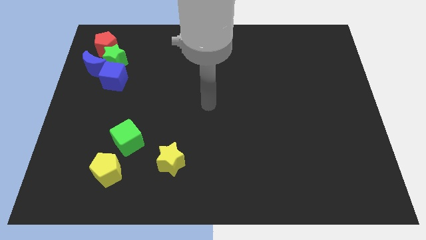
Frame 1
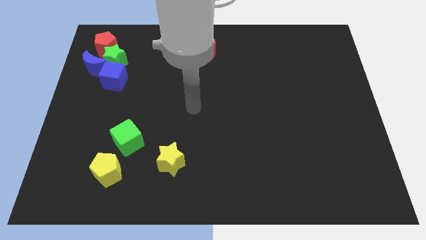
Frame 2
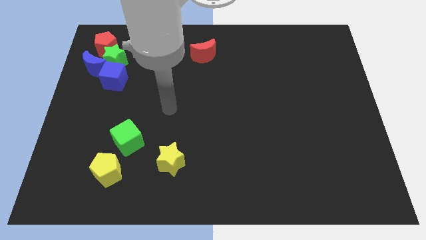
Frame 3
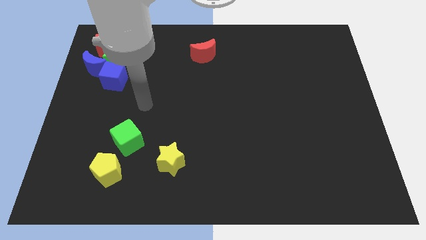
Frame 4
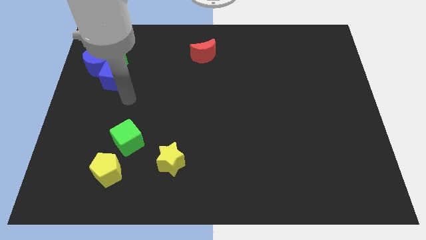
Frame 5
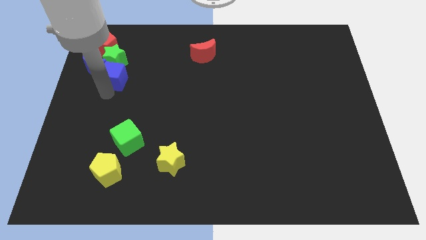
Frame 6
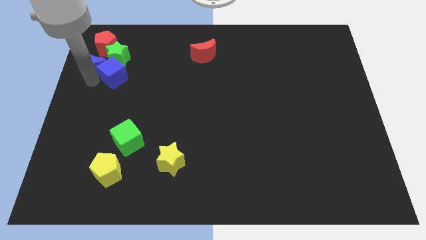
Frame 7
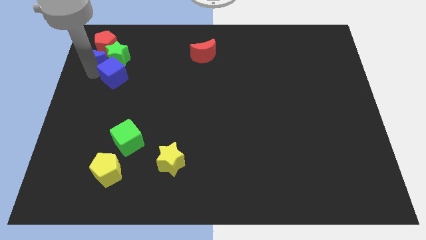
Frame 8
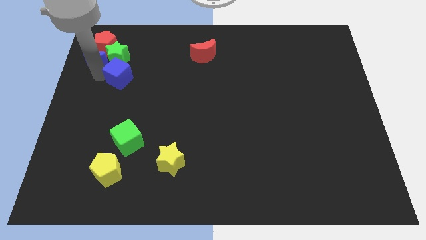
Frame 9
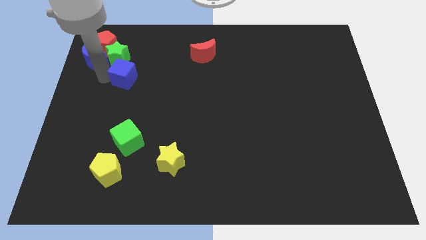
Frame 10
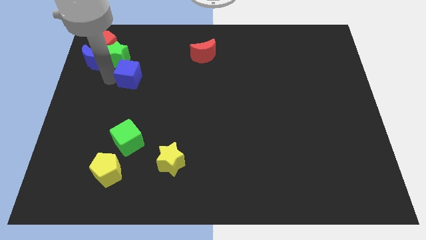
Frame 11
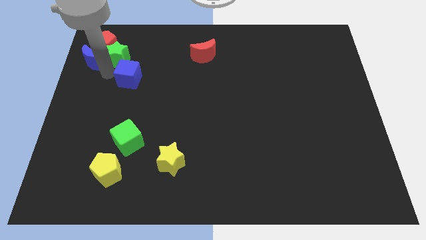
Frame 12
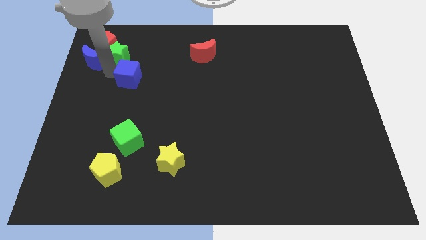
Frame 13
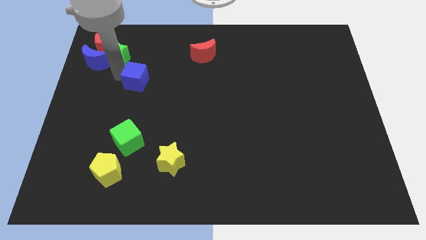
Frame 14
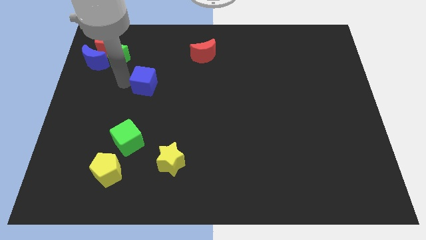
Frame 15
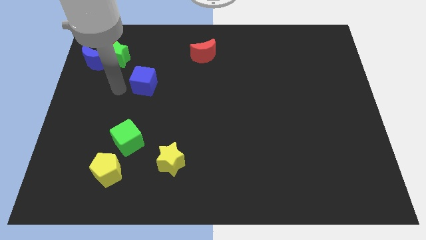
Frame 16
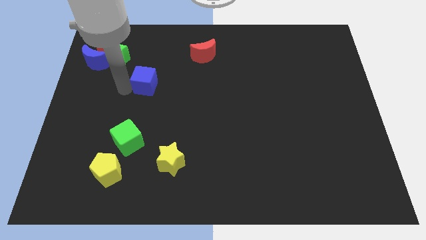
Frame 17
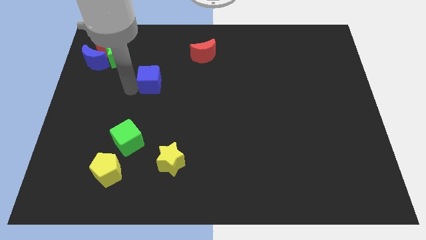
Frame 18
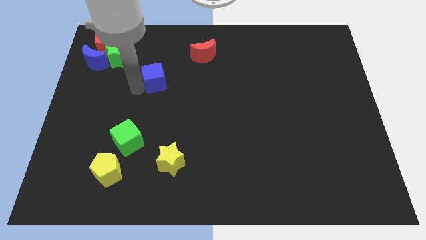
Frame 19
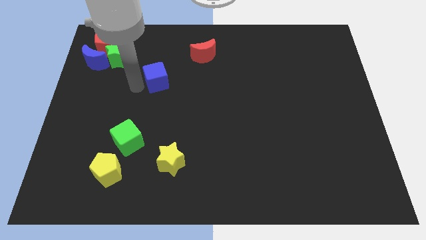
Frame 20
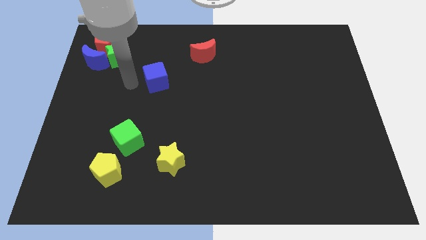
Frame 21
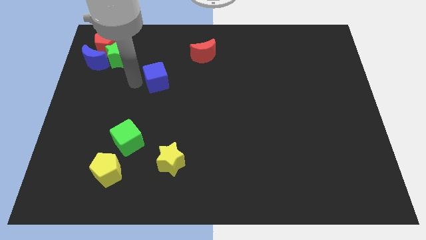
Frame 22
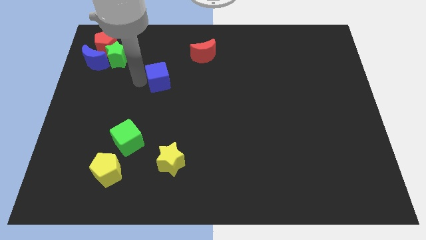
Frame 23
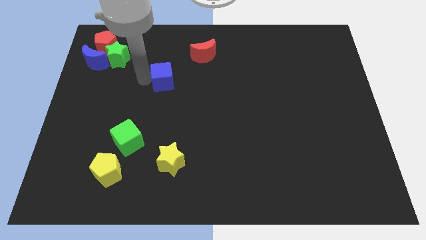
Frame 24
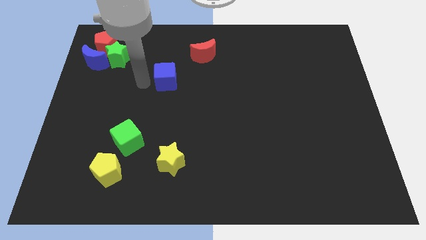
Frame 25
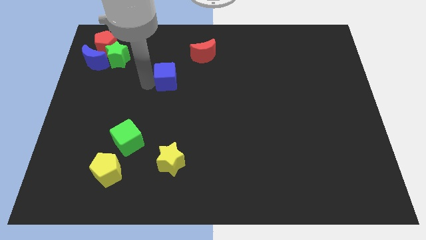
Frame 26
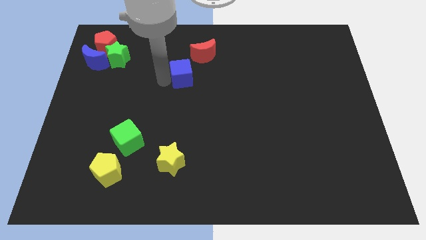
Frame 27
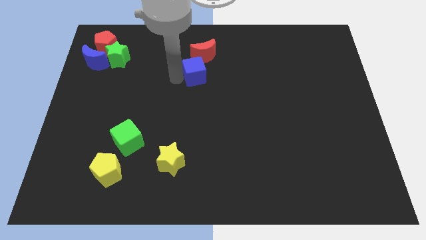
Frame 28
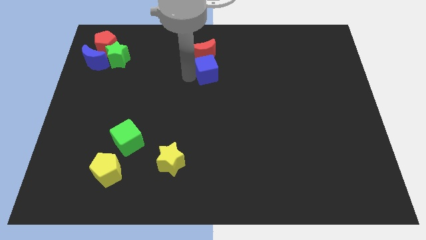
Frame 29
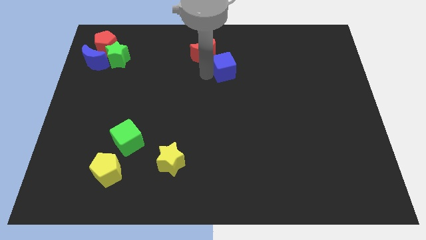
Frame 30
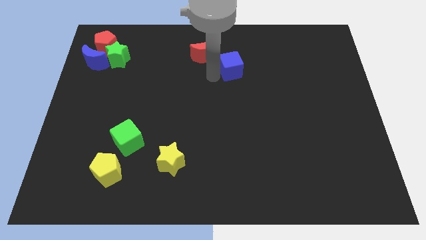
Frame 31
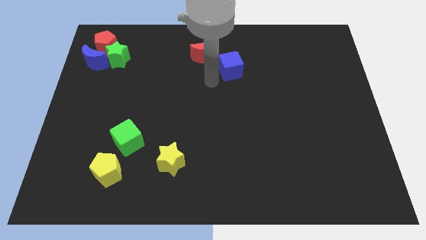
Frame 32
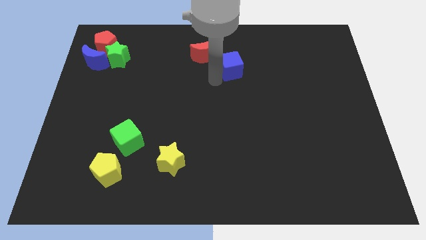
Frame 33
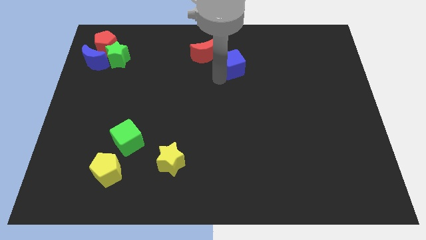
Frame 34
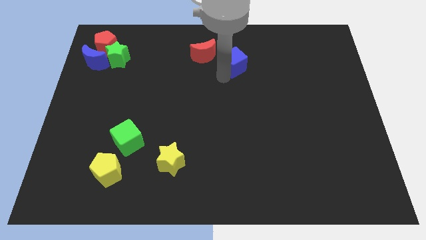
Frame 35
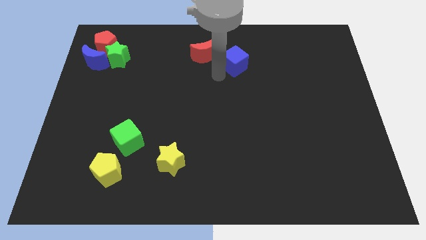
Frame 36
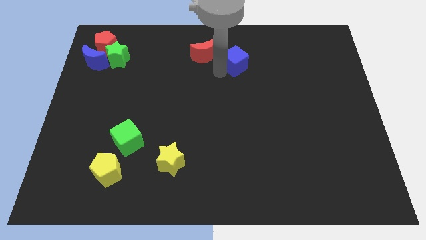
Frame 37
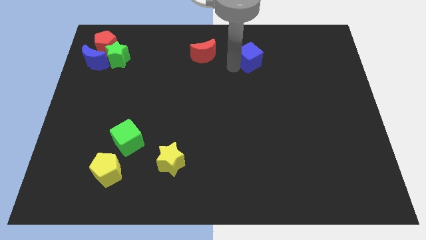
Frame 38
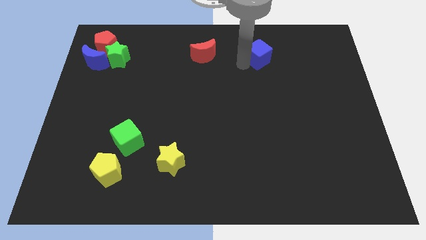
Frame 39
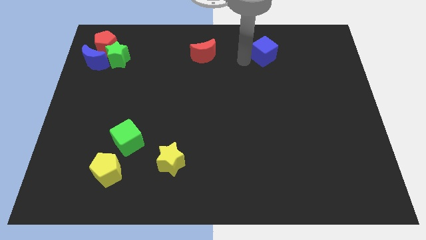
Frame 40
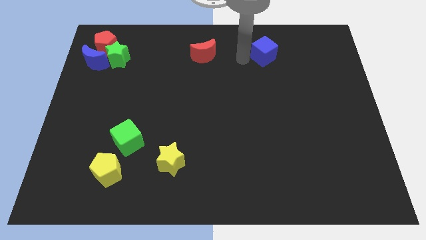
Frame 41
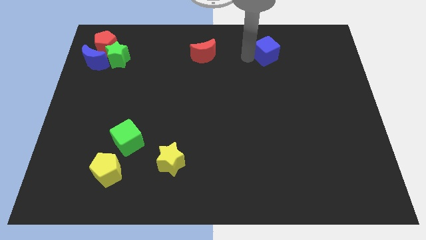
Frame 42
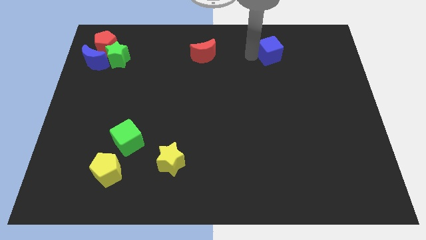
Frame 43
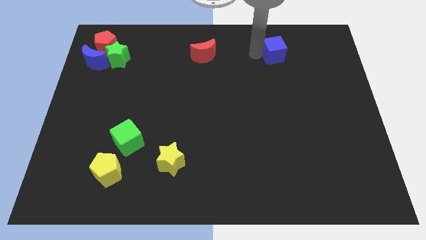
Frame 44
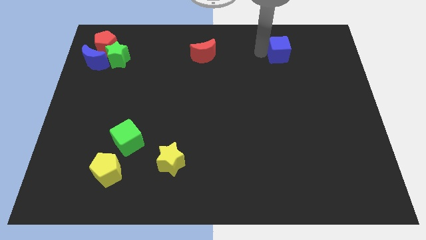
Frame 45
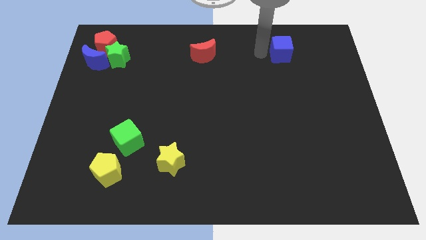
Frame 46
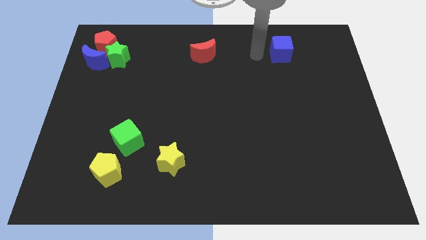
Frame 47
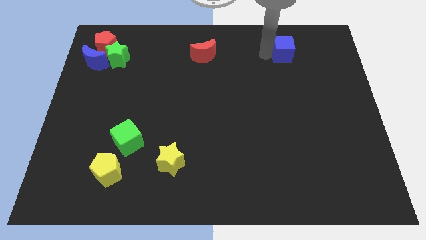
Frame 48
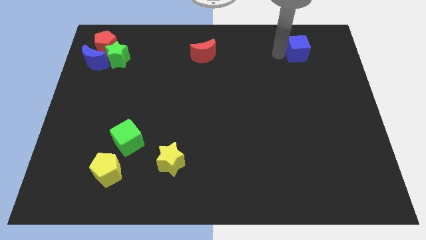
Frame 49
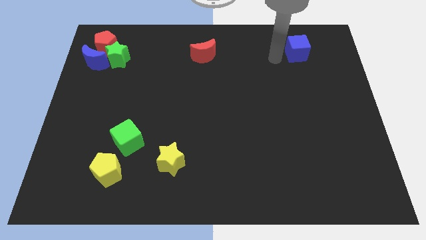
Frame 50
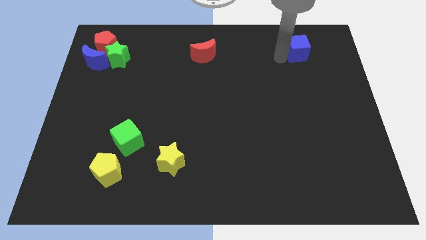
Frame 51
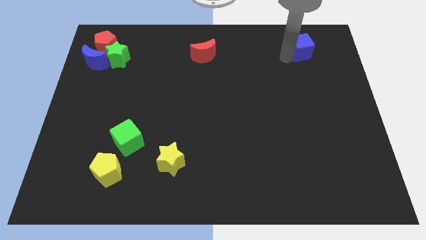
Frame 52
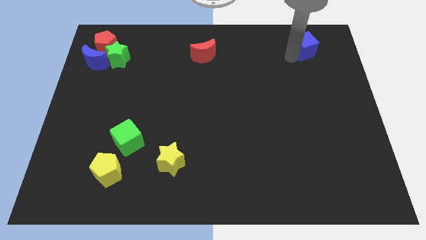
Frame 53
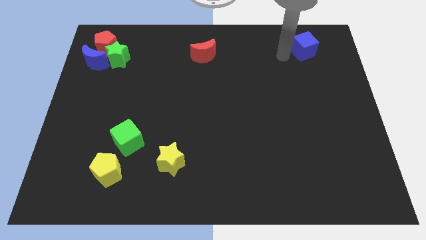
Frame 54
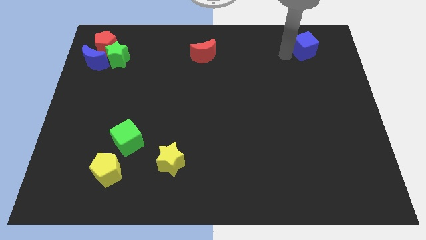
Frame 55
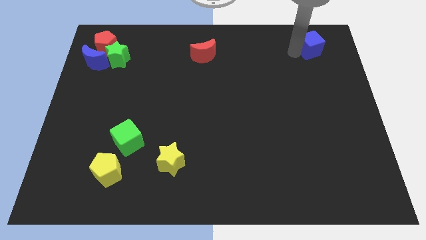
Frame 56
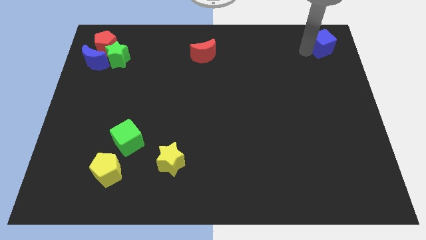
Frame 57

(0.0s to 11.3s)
slide the blue cube to the upper right corner
